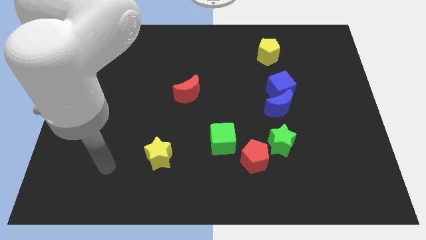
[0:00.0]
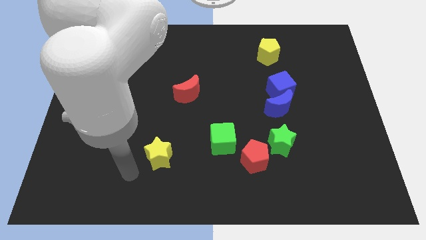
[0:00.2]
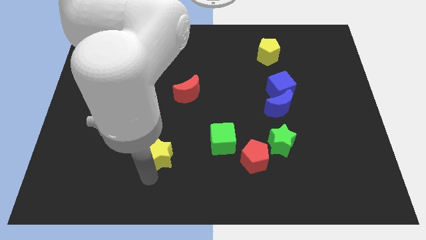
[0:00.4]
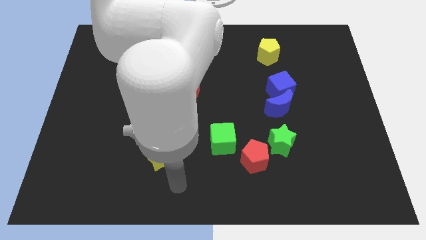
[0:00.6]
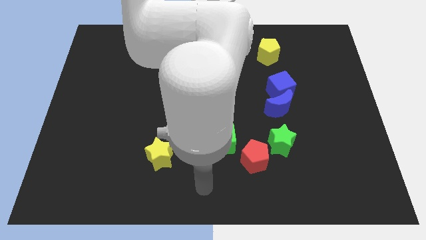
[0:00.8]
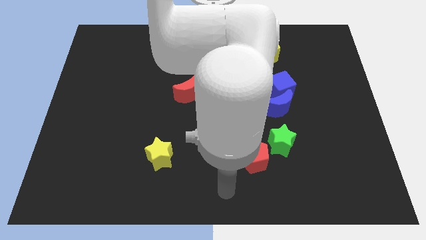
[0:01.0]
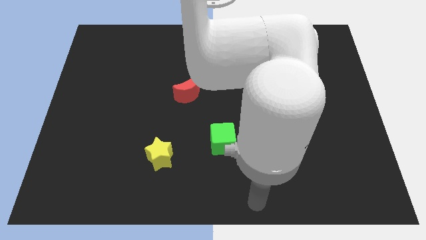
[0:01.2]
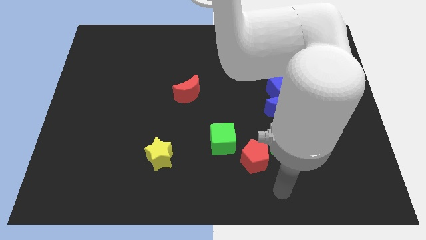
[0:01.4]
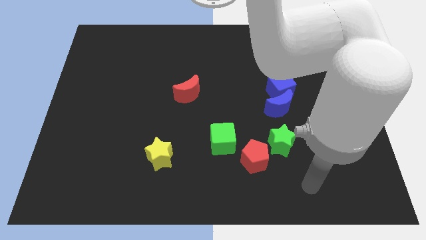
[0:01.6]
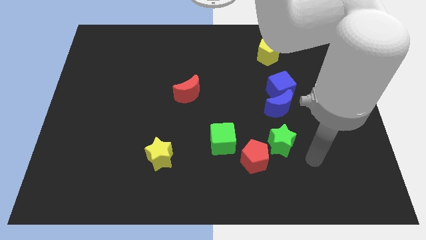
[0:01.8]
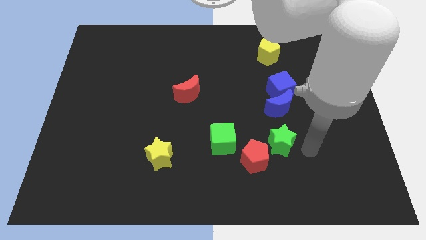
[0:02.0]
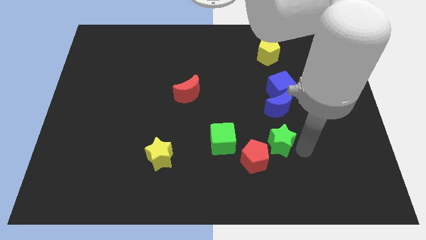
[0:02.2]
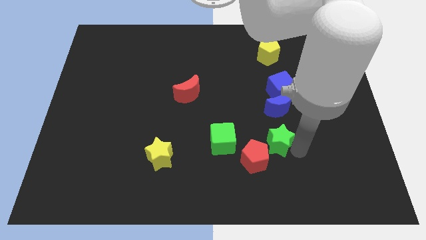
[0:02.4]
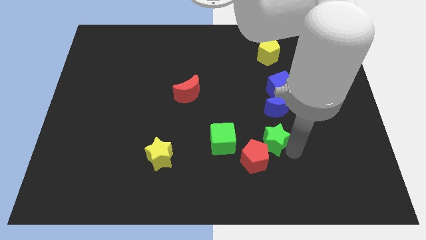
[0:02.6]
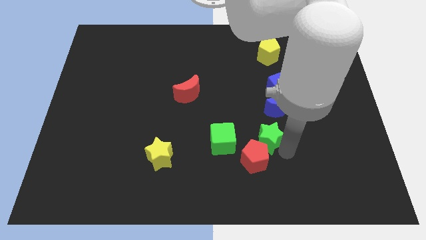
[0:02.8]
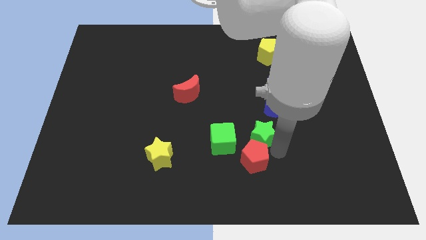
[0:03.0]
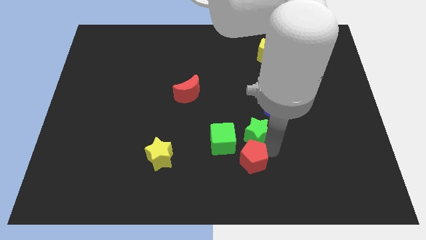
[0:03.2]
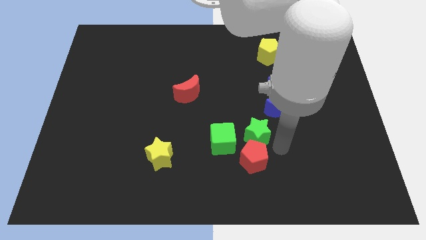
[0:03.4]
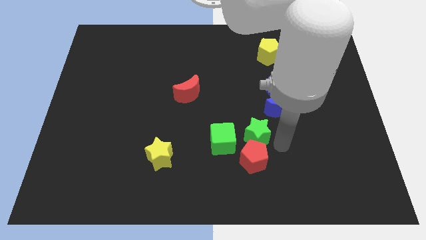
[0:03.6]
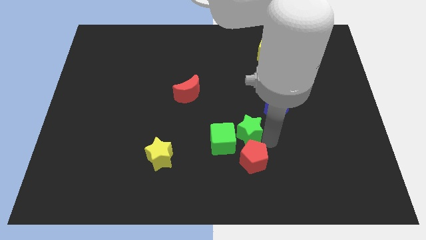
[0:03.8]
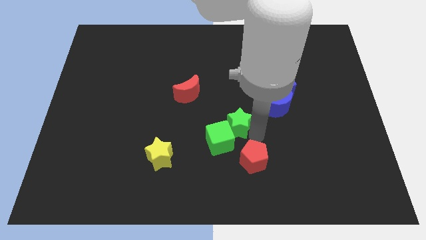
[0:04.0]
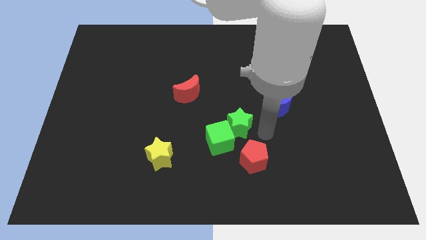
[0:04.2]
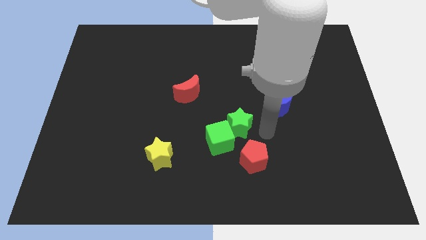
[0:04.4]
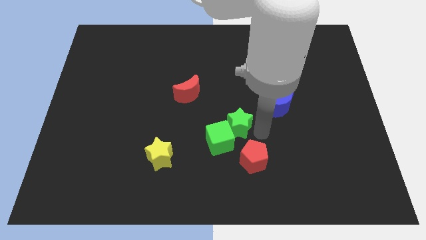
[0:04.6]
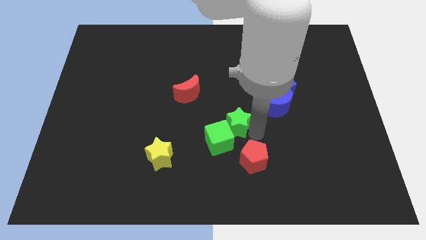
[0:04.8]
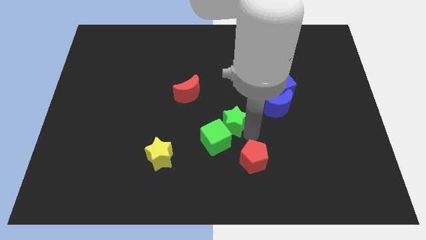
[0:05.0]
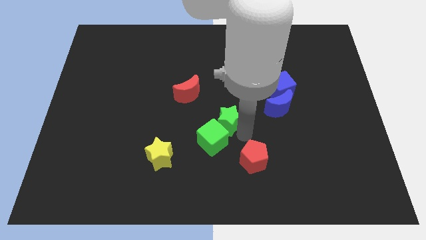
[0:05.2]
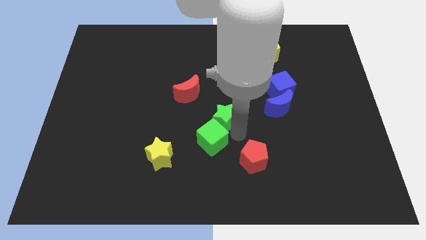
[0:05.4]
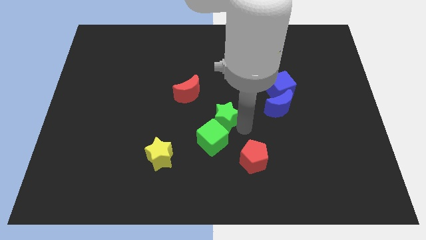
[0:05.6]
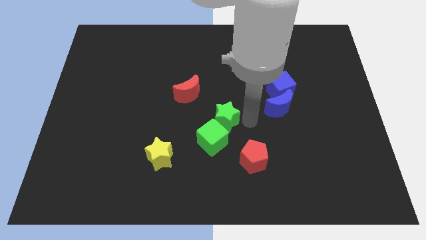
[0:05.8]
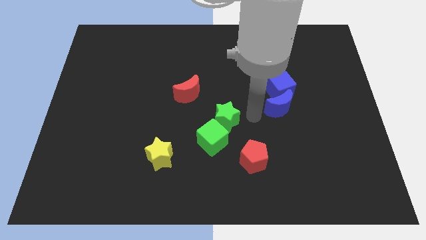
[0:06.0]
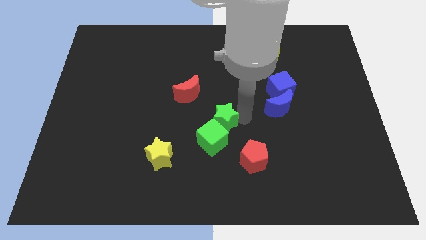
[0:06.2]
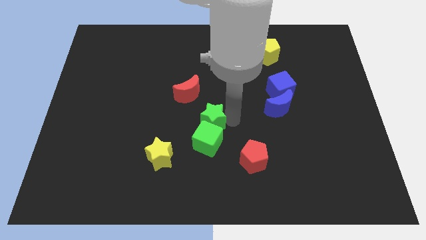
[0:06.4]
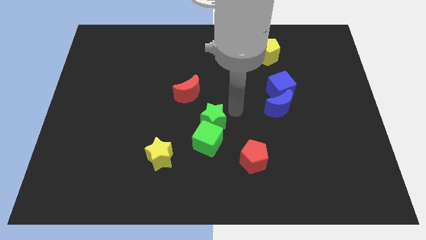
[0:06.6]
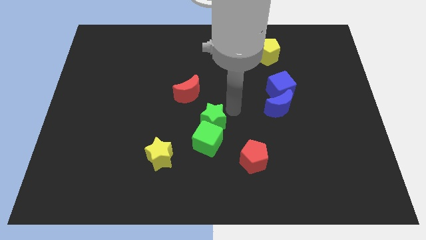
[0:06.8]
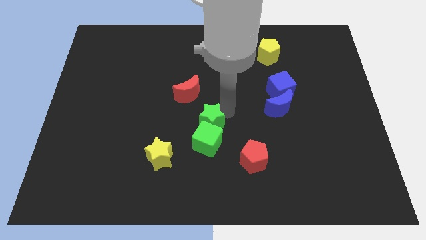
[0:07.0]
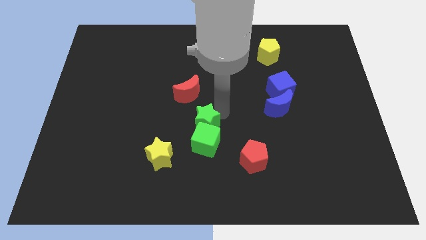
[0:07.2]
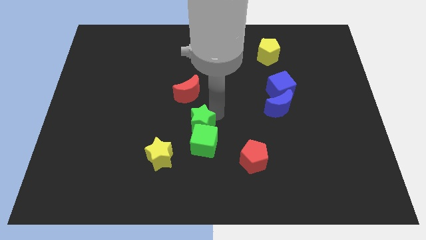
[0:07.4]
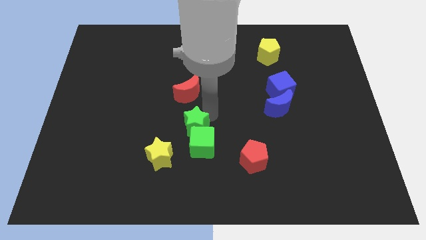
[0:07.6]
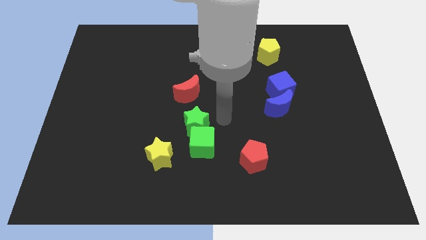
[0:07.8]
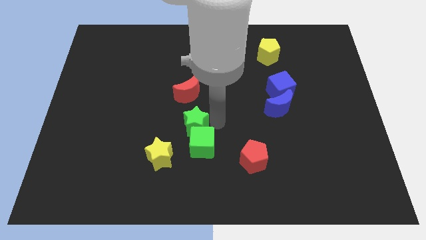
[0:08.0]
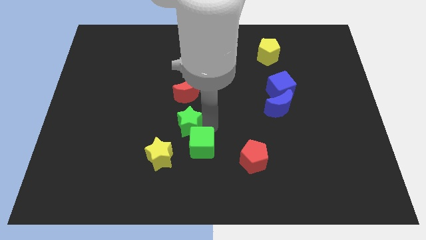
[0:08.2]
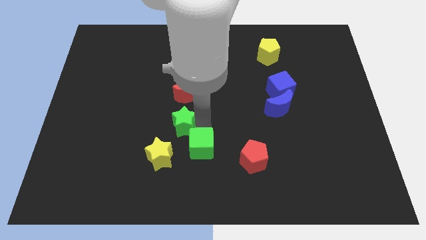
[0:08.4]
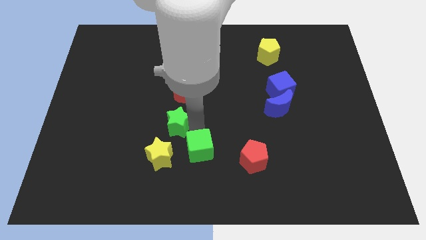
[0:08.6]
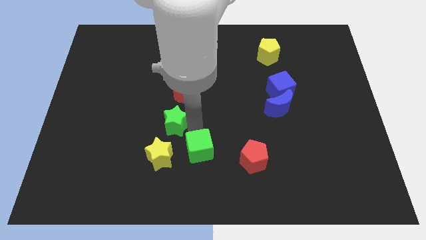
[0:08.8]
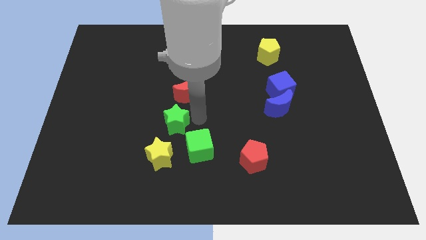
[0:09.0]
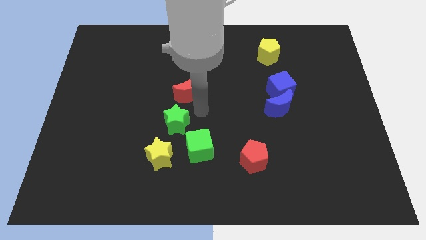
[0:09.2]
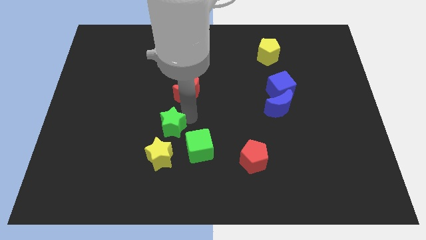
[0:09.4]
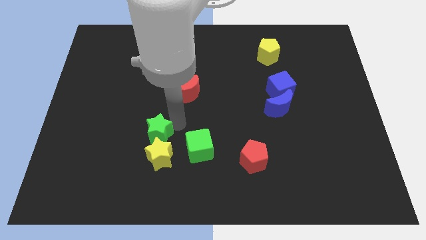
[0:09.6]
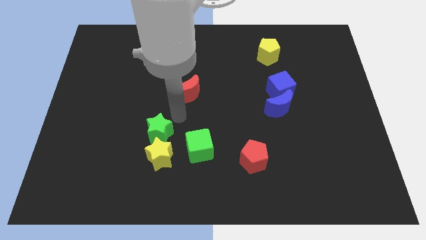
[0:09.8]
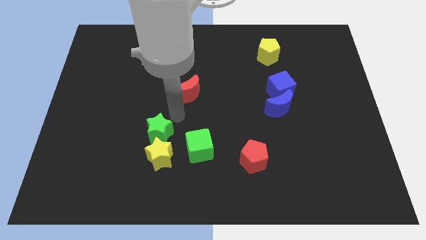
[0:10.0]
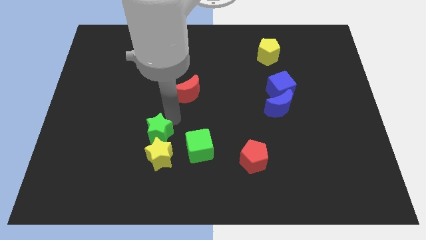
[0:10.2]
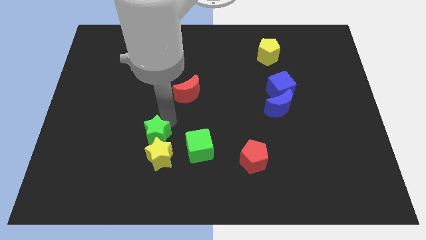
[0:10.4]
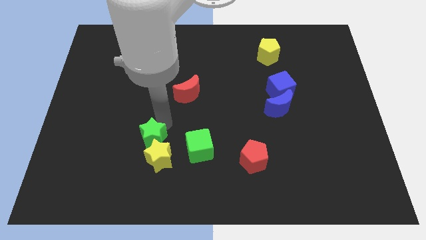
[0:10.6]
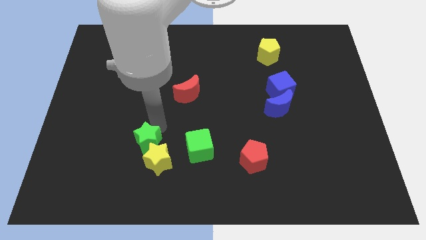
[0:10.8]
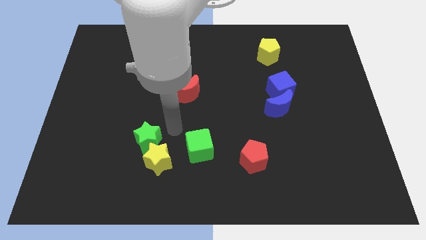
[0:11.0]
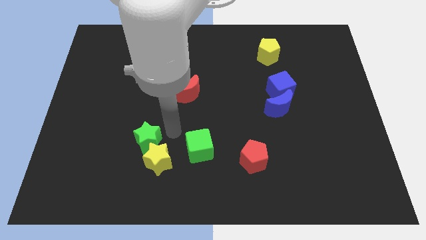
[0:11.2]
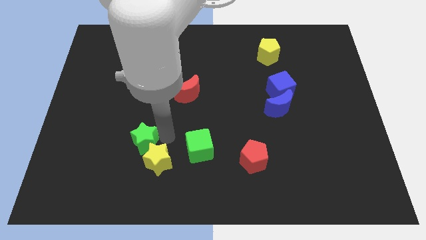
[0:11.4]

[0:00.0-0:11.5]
push the green star to the left of the yellow star
